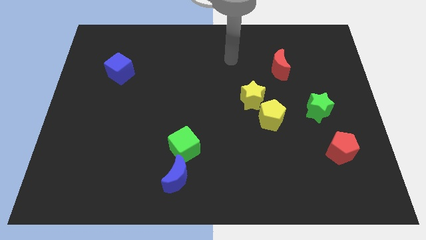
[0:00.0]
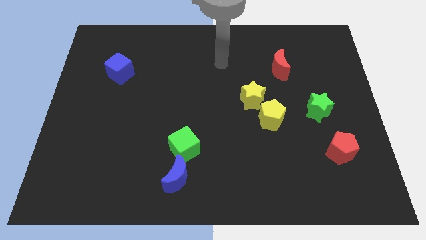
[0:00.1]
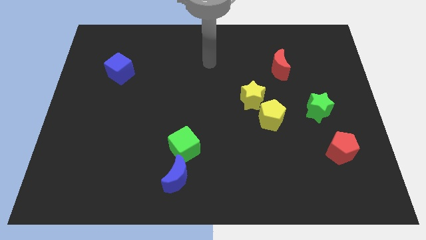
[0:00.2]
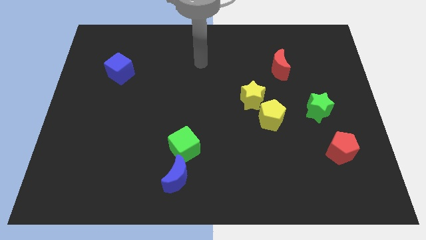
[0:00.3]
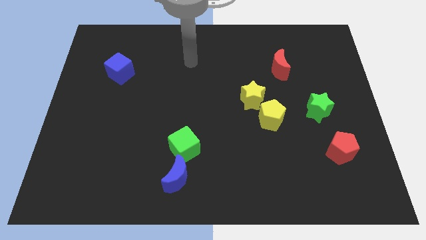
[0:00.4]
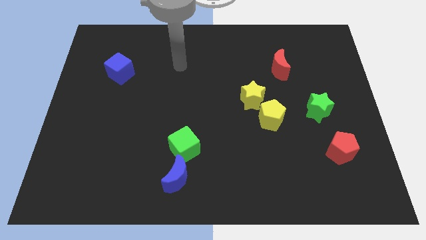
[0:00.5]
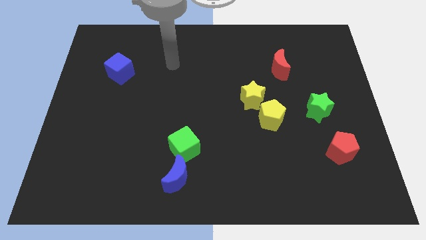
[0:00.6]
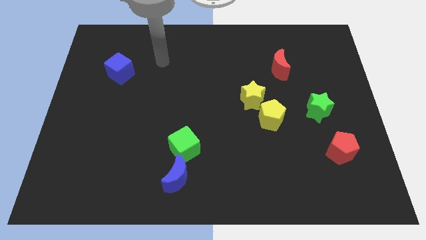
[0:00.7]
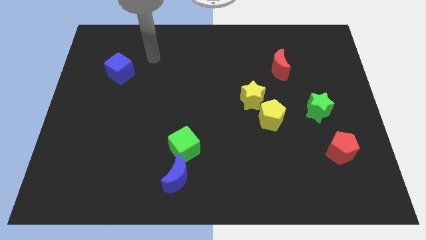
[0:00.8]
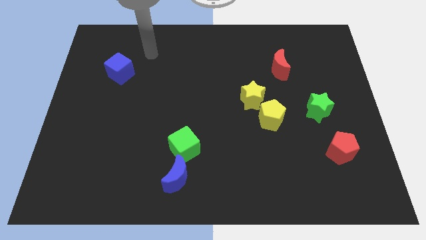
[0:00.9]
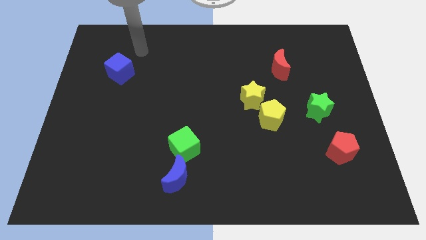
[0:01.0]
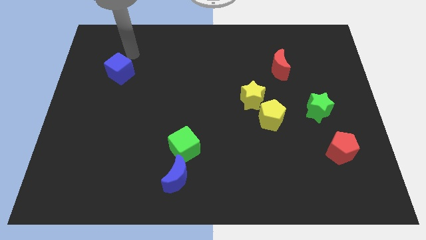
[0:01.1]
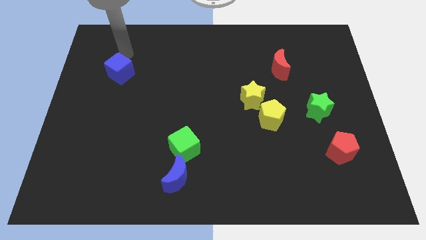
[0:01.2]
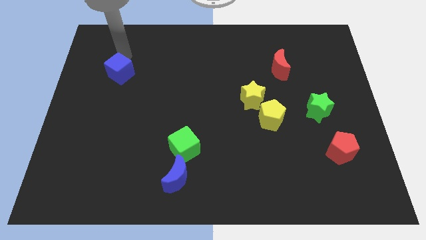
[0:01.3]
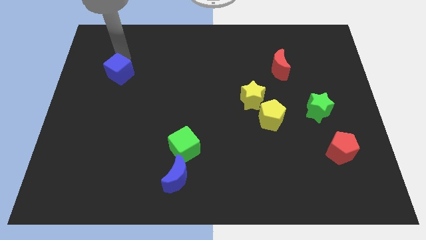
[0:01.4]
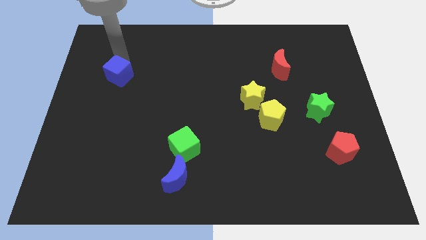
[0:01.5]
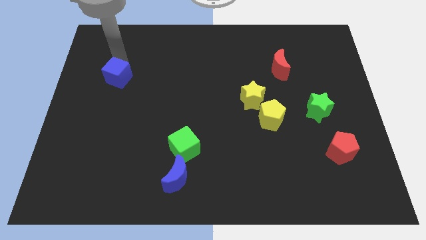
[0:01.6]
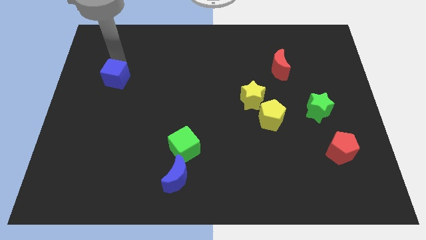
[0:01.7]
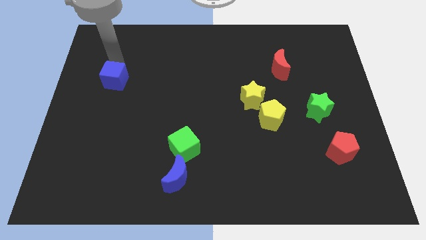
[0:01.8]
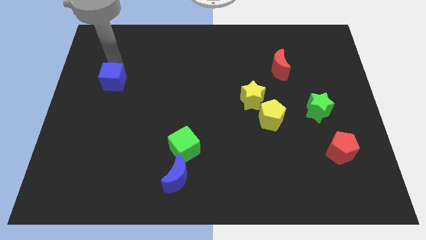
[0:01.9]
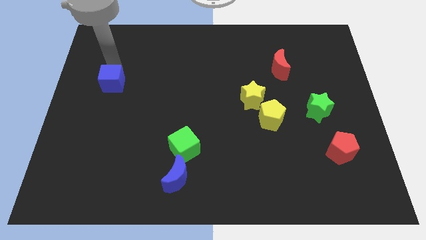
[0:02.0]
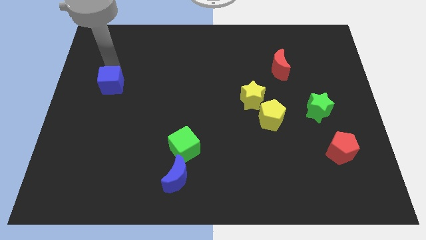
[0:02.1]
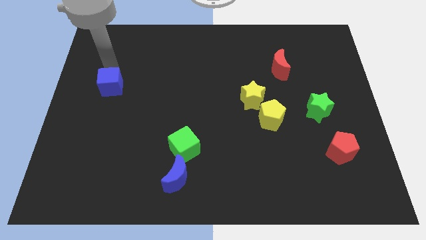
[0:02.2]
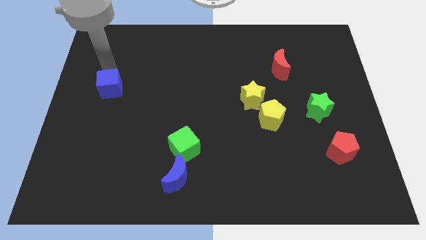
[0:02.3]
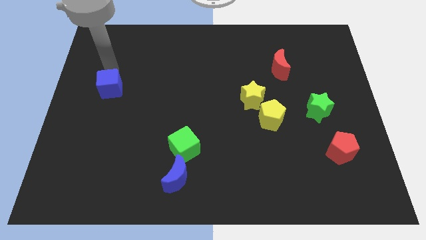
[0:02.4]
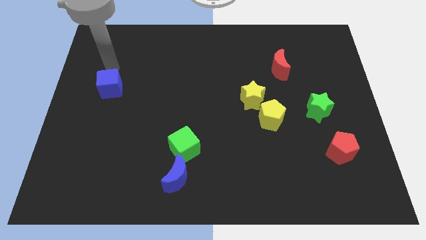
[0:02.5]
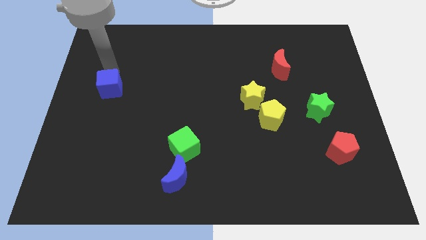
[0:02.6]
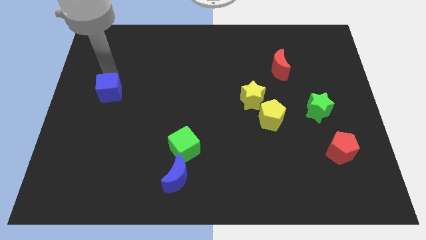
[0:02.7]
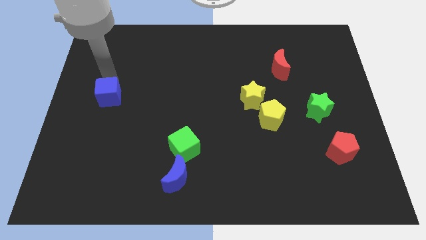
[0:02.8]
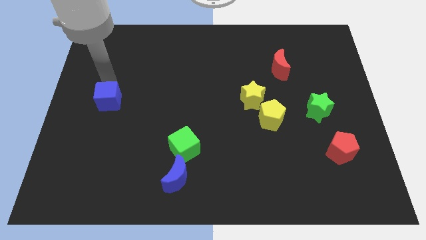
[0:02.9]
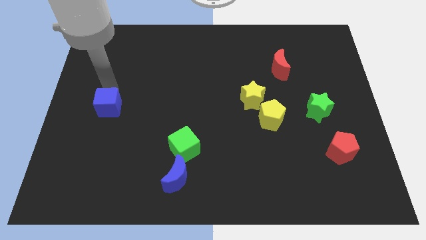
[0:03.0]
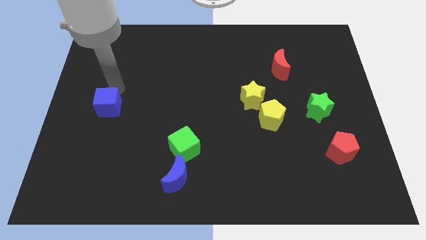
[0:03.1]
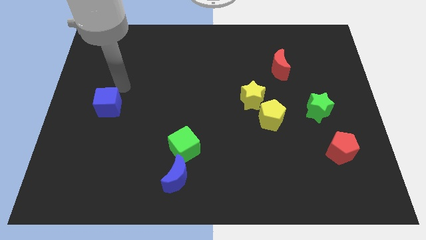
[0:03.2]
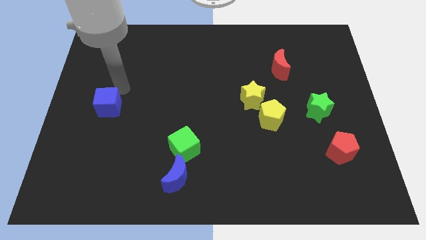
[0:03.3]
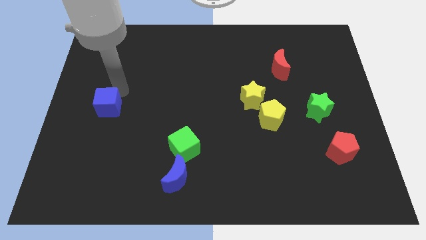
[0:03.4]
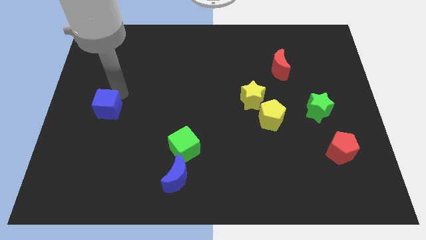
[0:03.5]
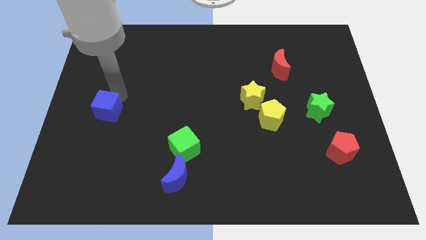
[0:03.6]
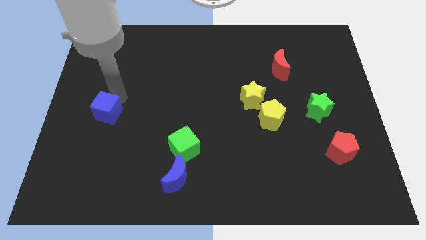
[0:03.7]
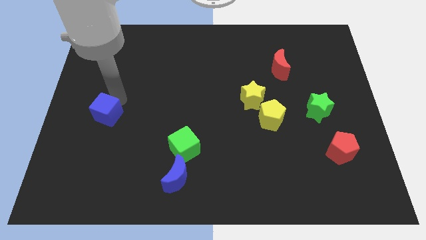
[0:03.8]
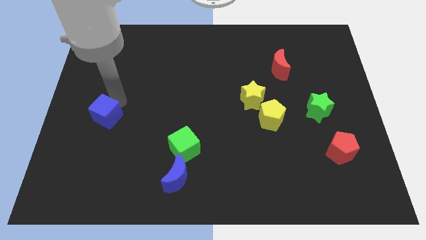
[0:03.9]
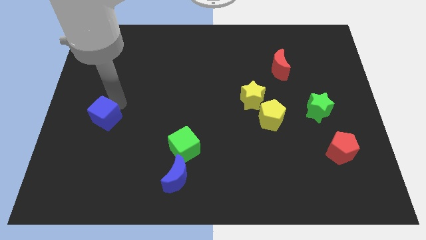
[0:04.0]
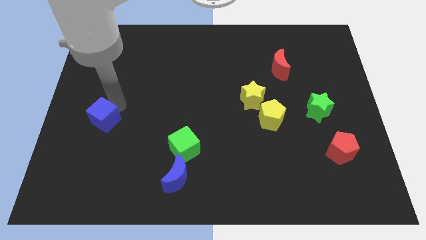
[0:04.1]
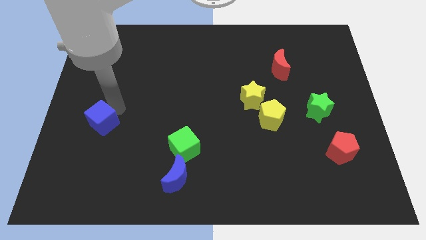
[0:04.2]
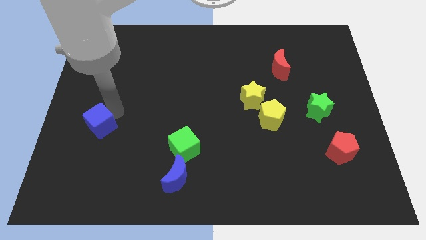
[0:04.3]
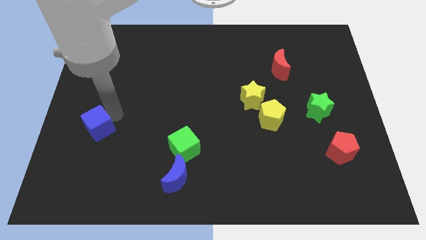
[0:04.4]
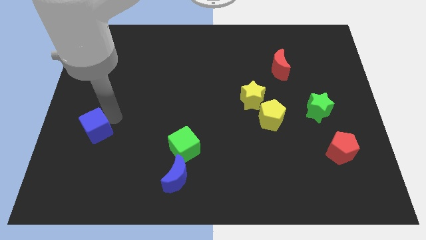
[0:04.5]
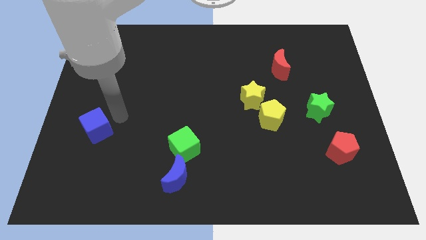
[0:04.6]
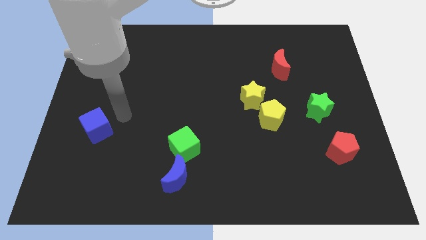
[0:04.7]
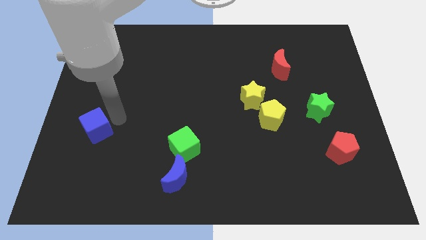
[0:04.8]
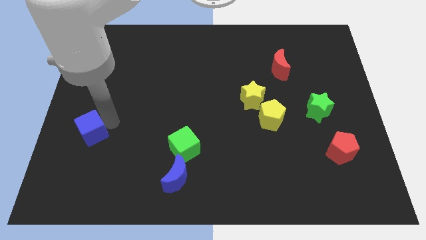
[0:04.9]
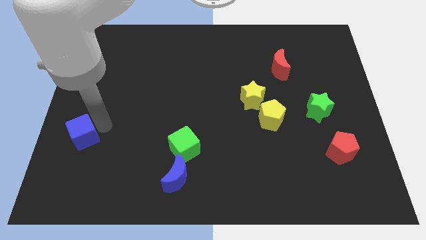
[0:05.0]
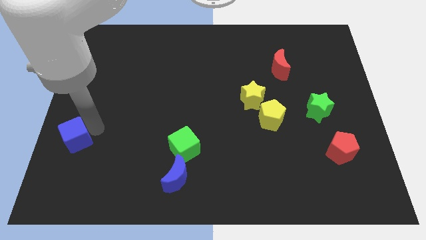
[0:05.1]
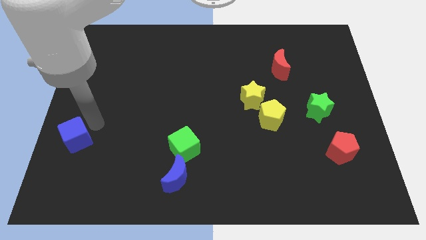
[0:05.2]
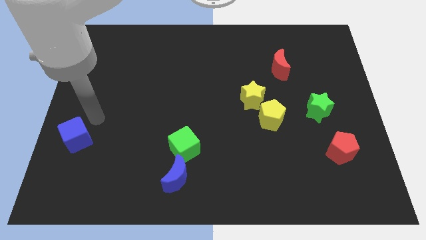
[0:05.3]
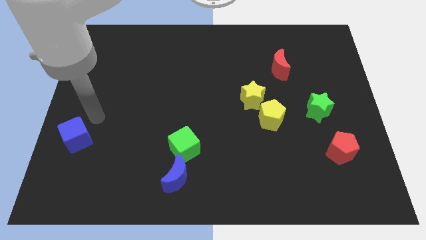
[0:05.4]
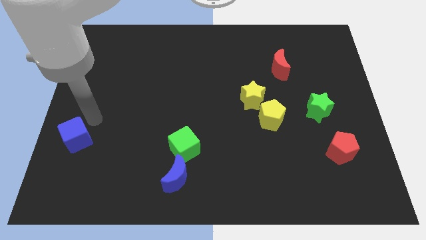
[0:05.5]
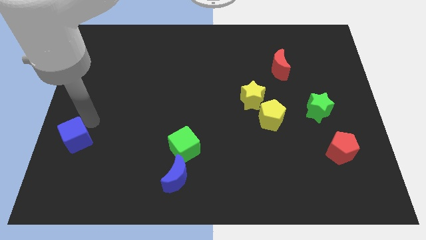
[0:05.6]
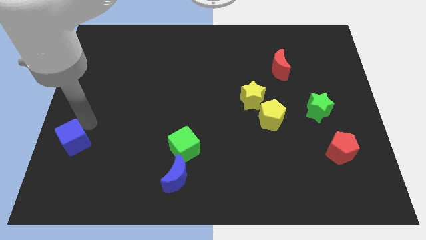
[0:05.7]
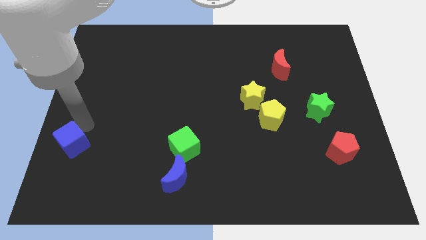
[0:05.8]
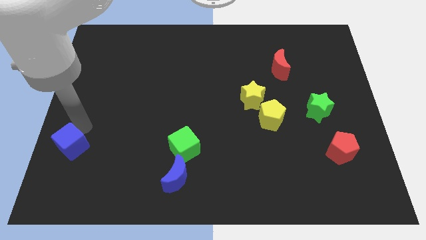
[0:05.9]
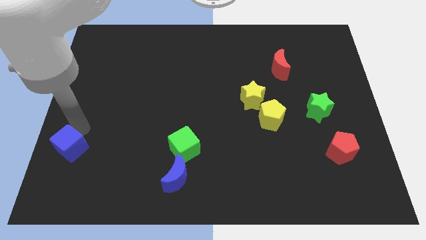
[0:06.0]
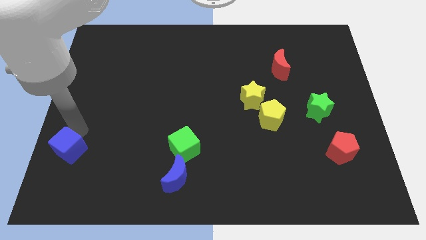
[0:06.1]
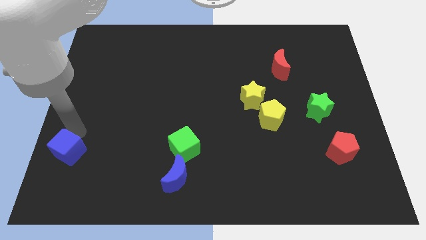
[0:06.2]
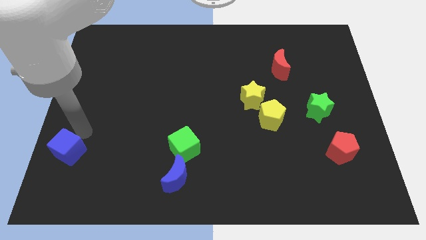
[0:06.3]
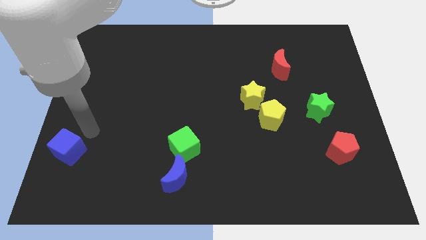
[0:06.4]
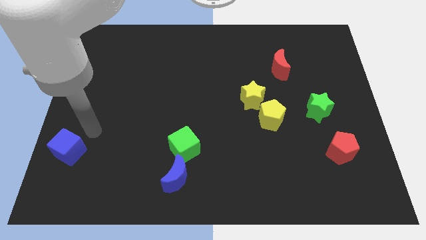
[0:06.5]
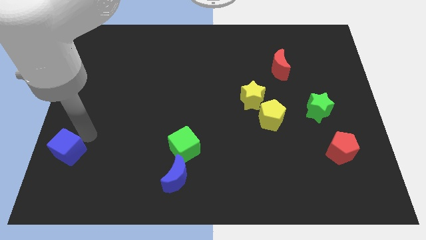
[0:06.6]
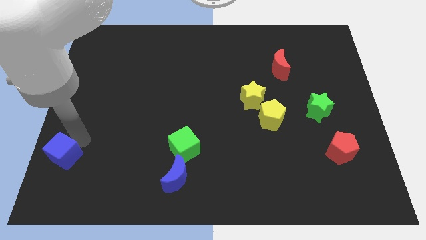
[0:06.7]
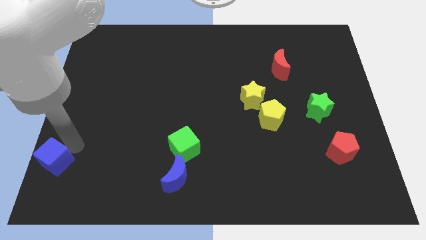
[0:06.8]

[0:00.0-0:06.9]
put the blue cube to the bottom left
